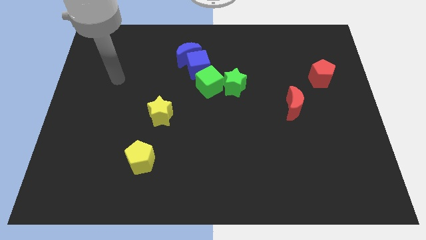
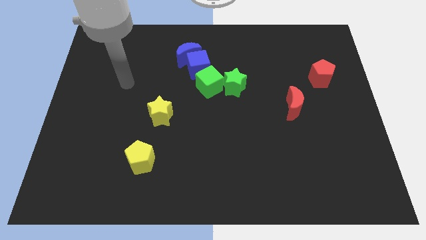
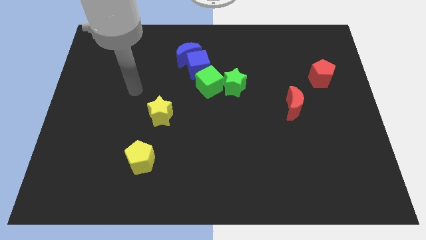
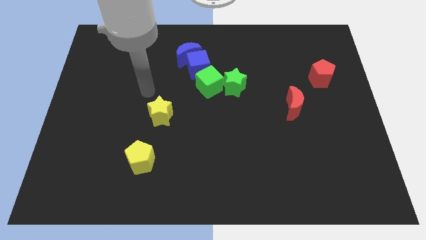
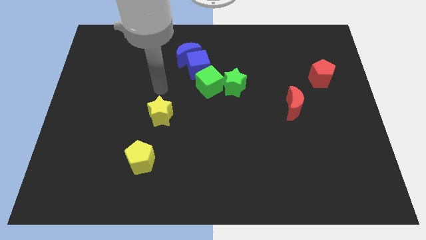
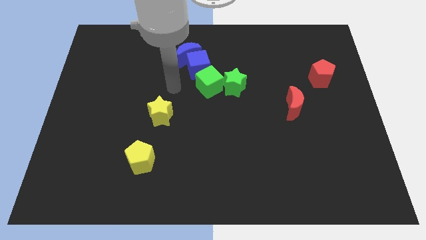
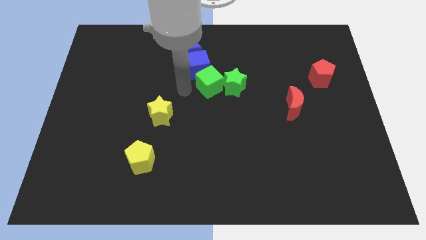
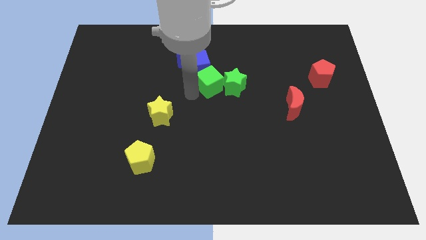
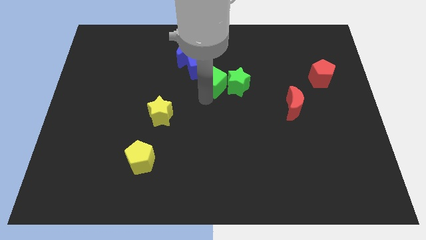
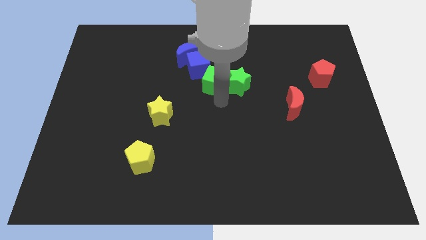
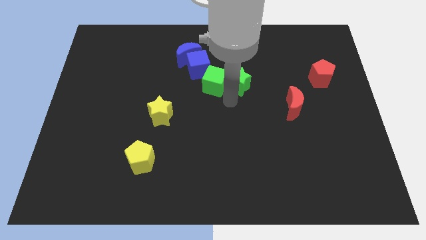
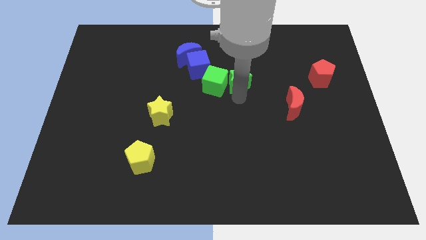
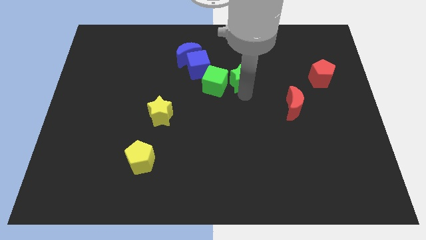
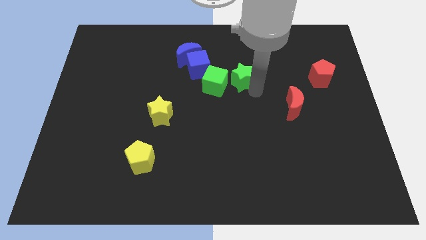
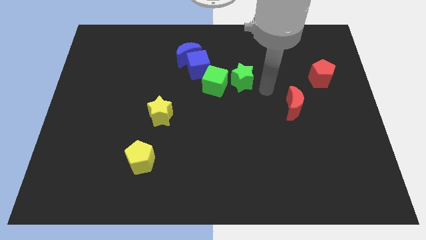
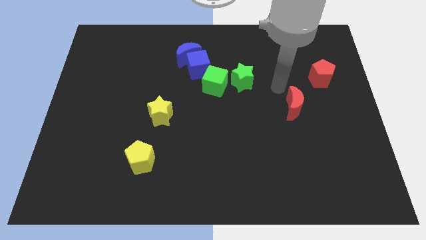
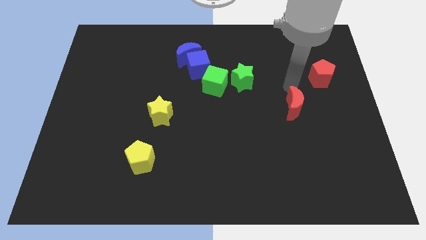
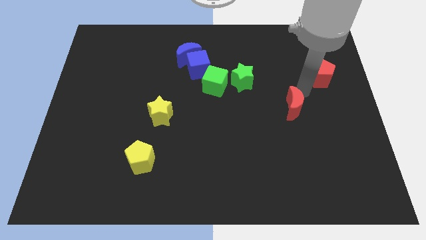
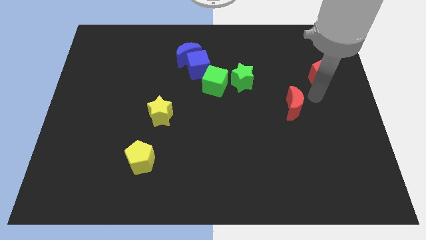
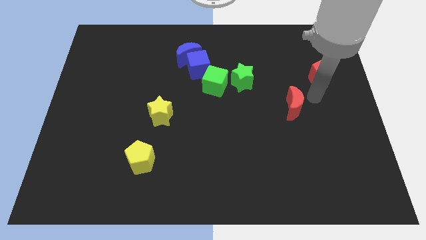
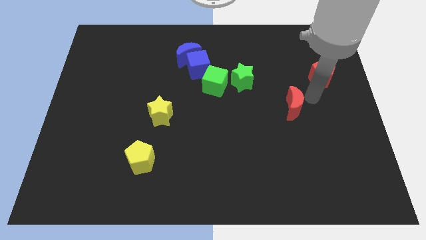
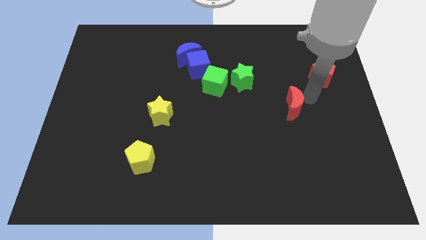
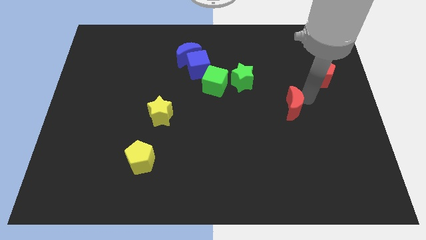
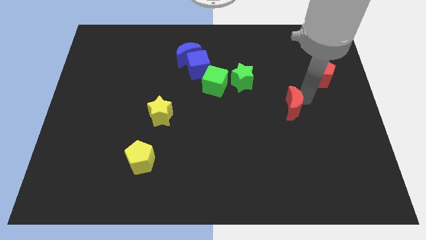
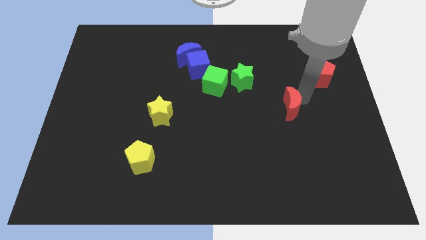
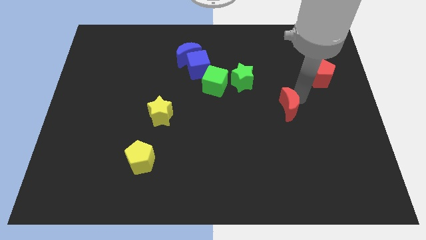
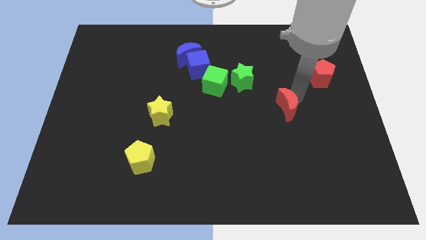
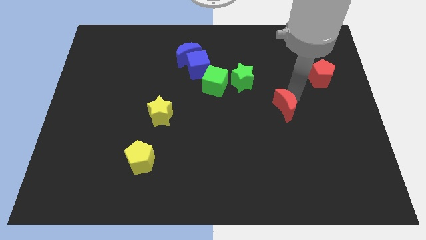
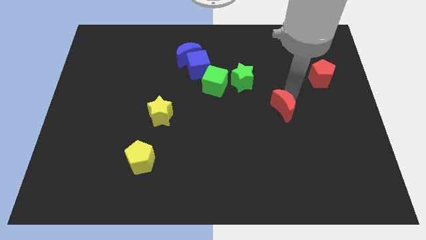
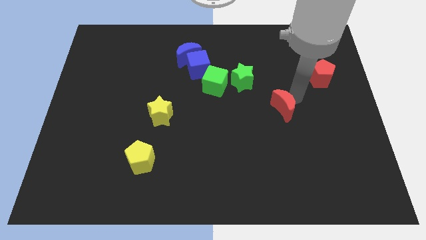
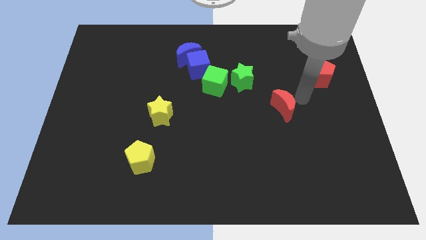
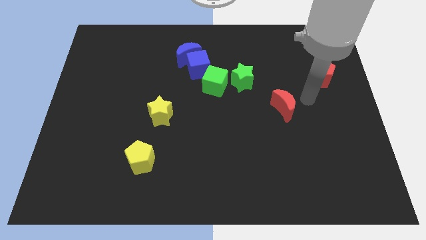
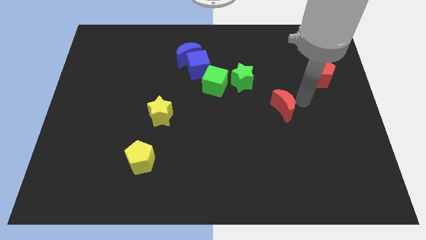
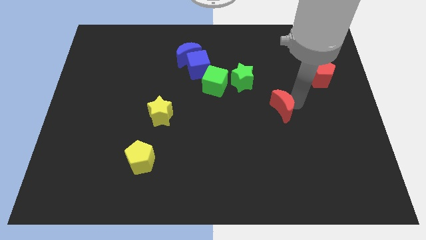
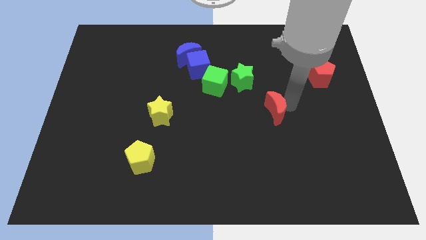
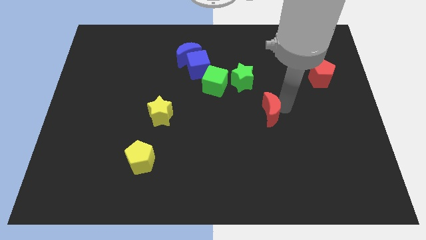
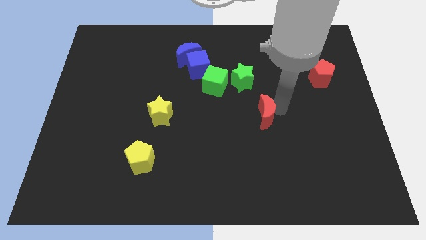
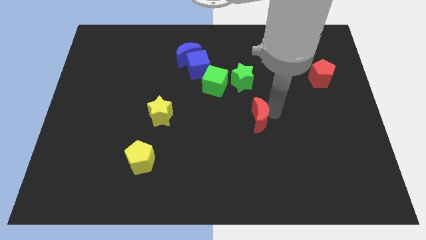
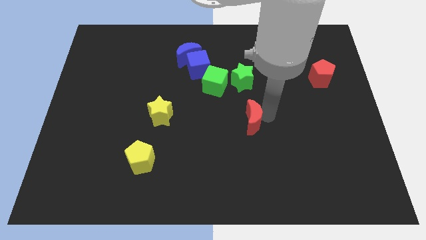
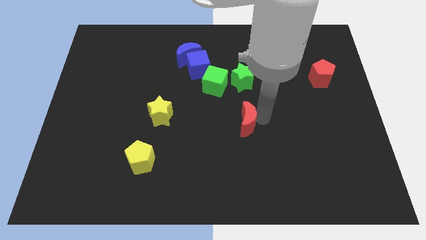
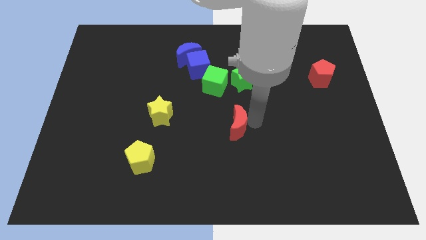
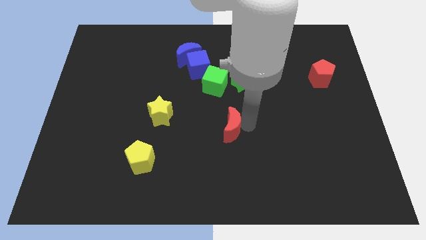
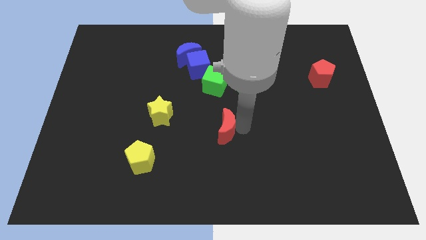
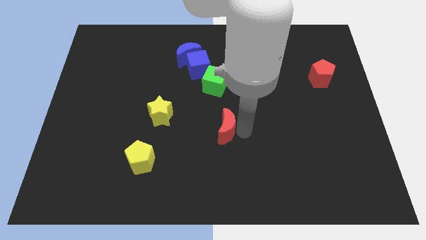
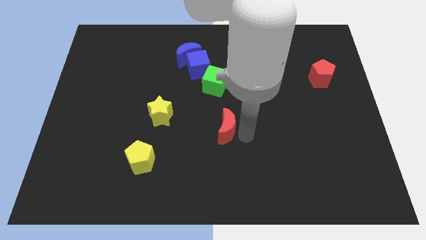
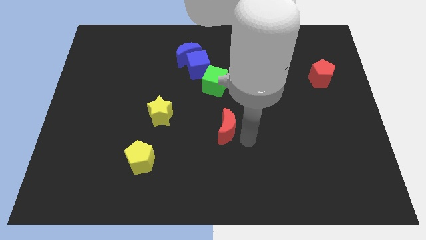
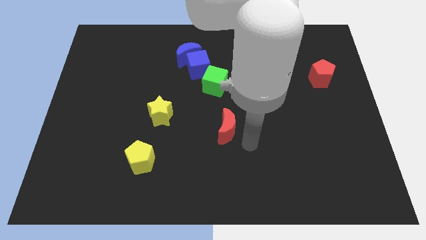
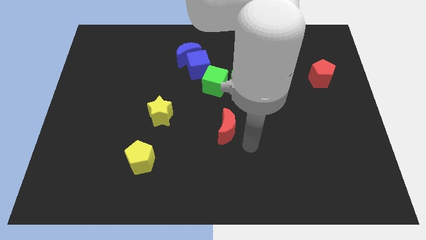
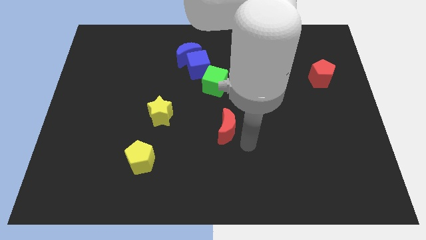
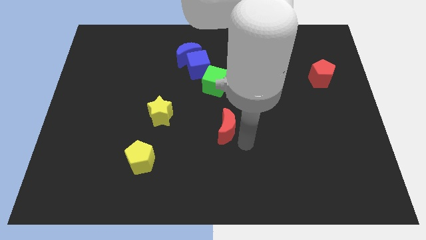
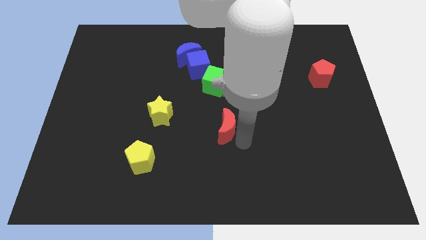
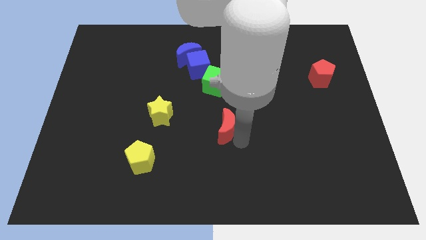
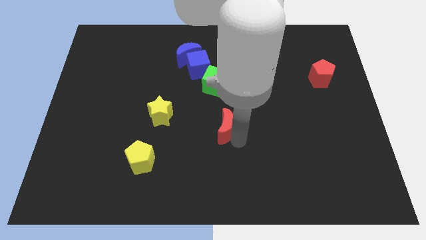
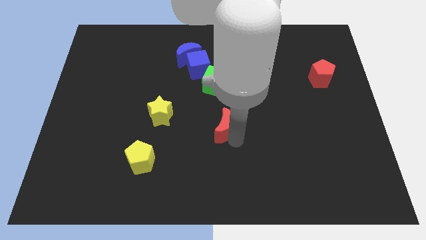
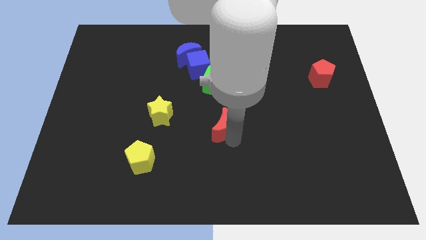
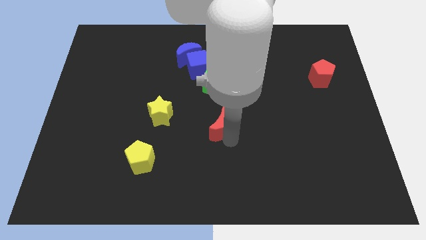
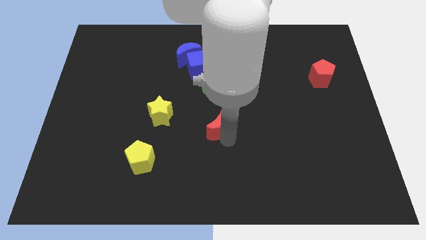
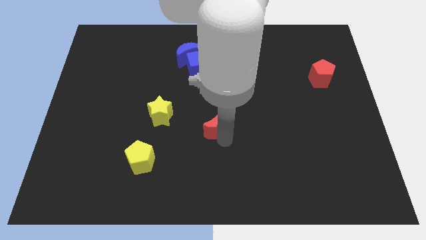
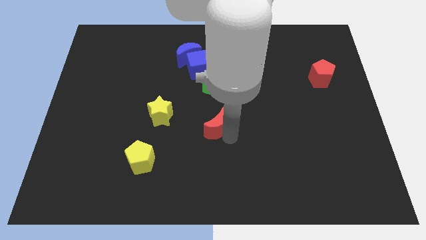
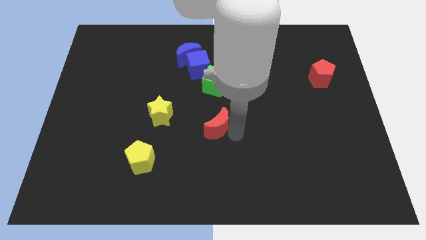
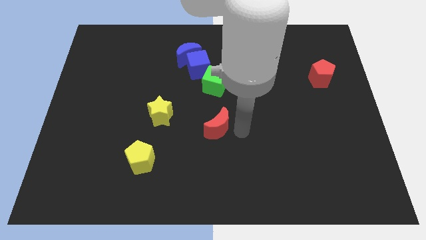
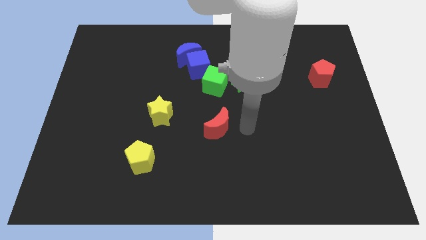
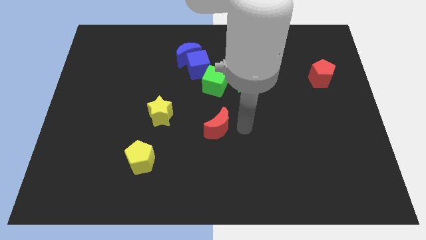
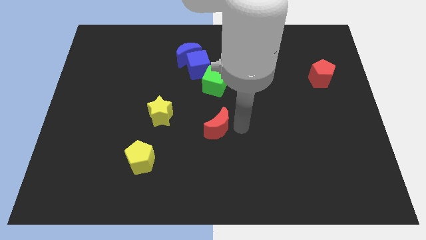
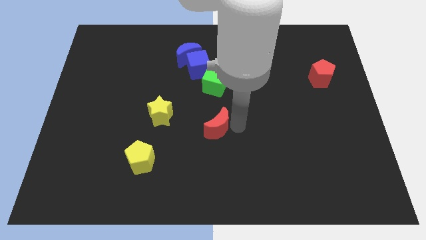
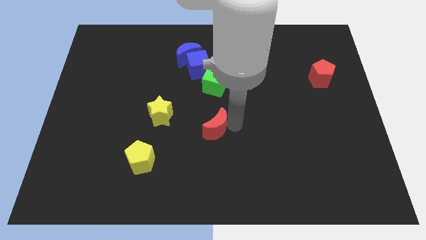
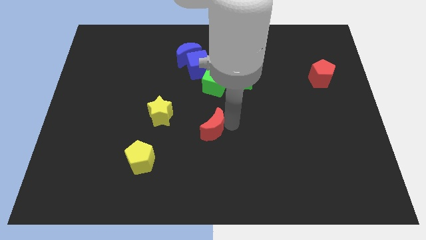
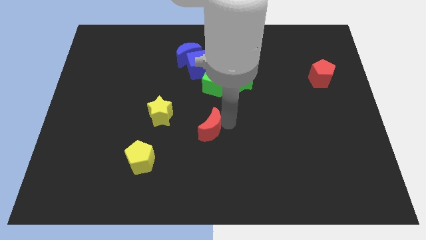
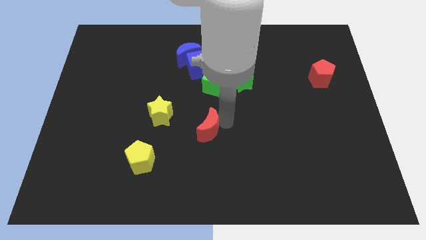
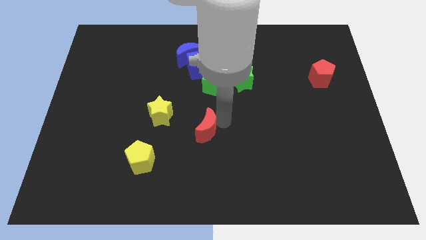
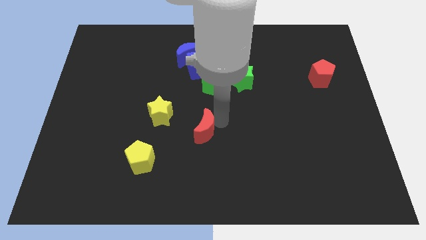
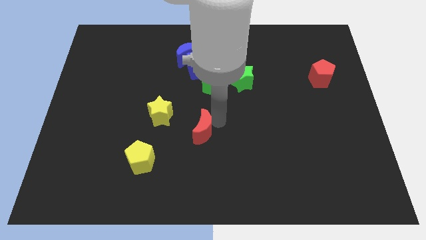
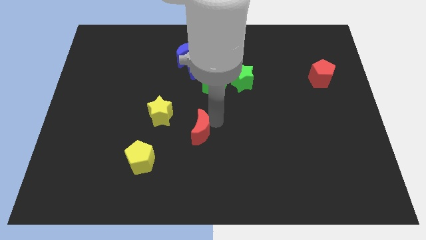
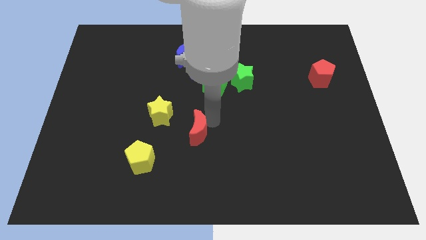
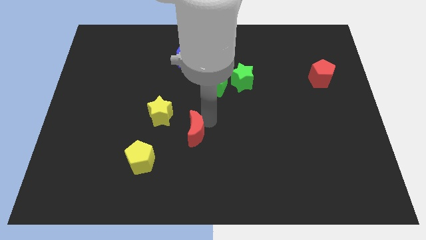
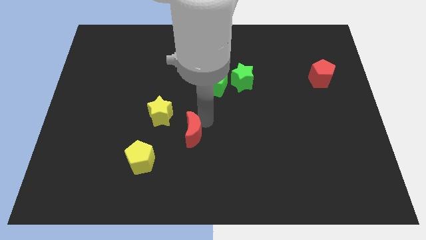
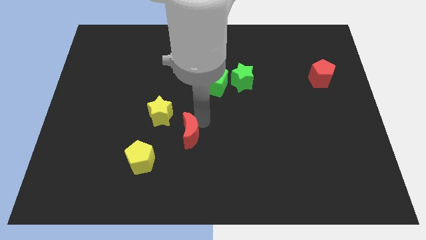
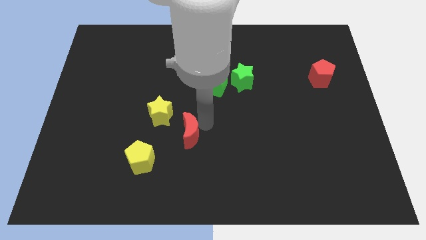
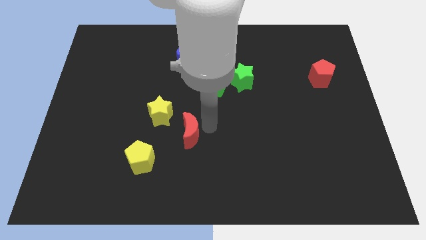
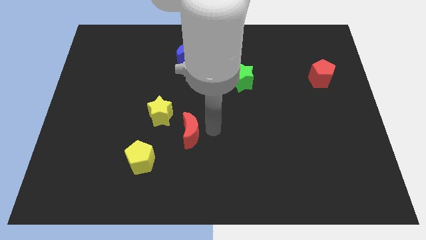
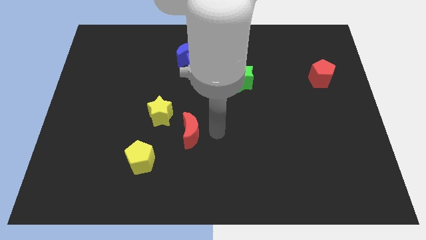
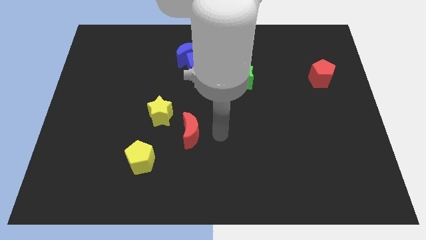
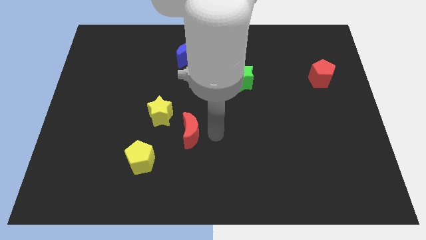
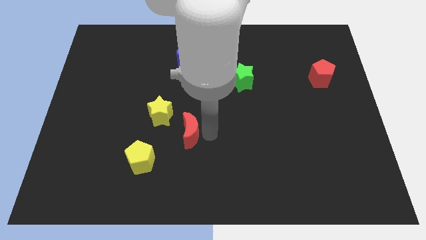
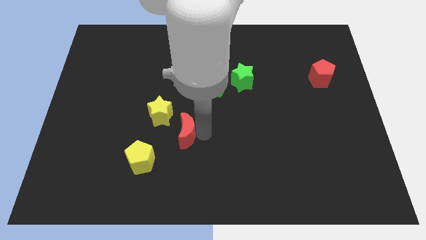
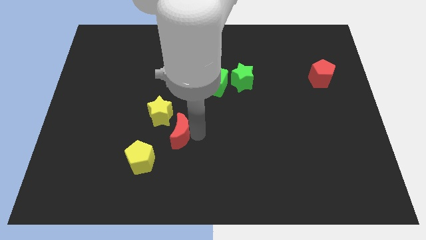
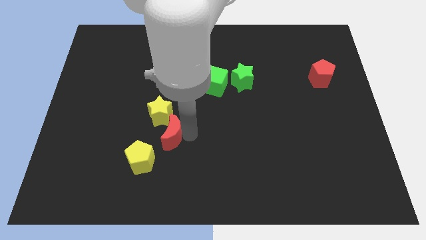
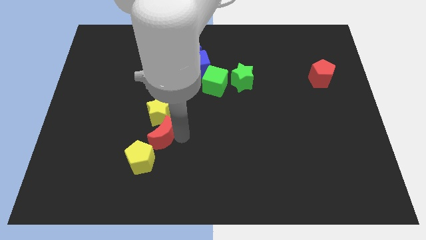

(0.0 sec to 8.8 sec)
slide the red moon to the top of the yellow pentagon
